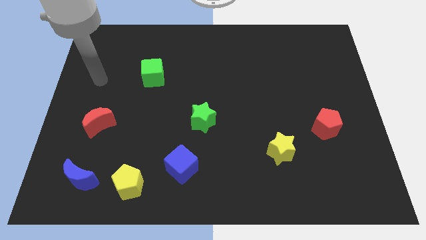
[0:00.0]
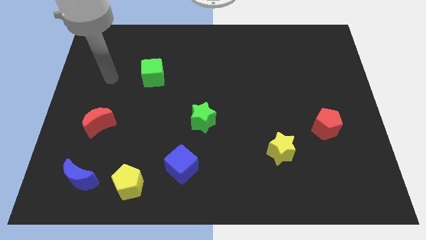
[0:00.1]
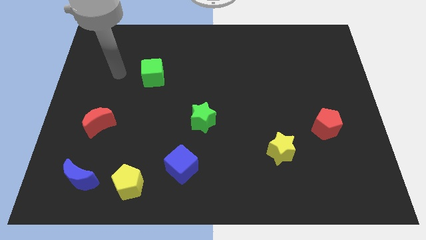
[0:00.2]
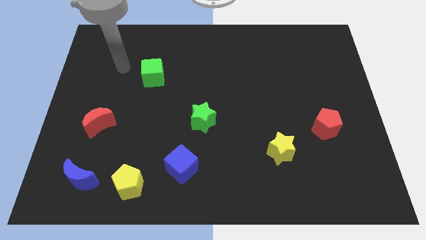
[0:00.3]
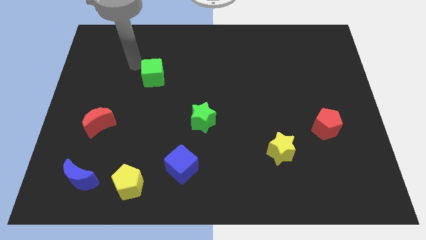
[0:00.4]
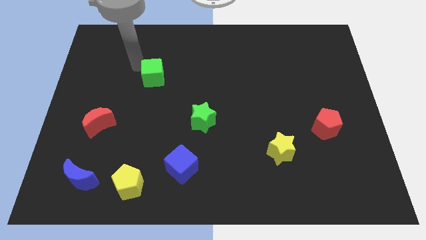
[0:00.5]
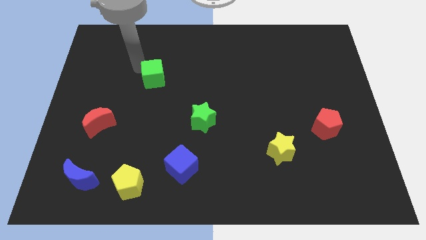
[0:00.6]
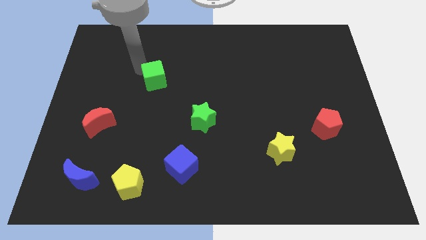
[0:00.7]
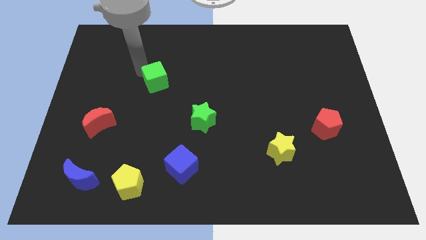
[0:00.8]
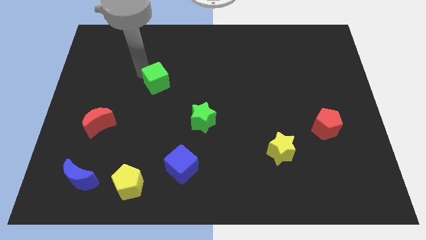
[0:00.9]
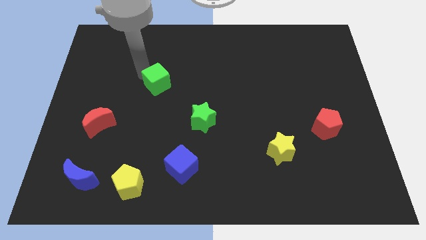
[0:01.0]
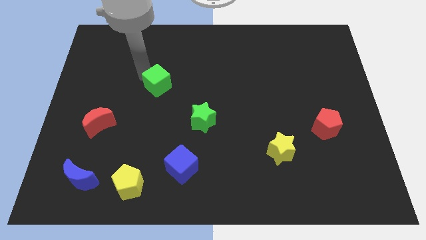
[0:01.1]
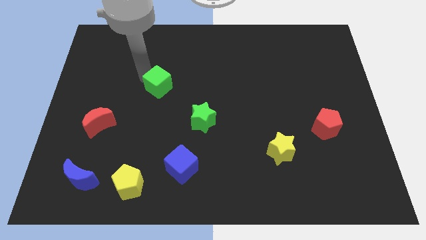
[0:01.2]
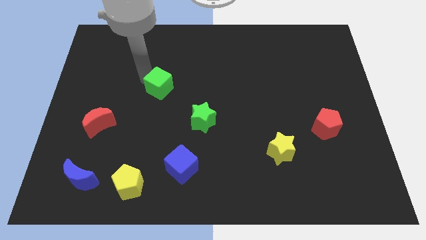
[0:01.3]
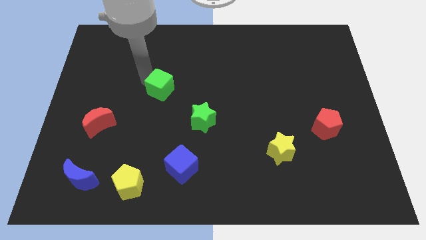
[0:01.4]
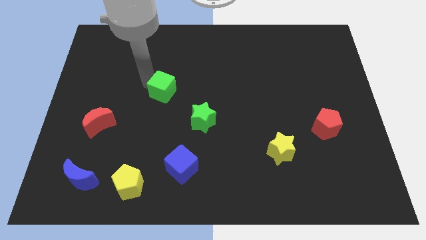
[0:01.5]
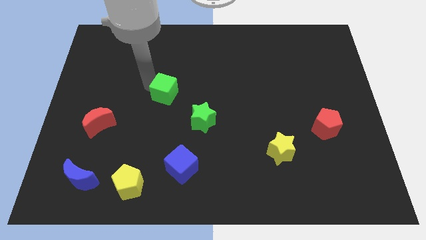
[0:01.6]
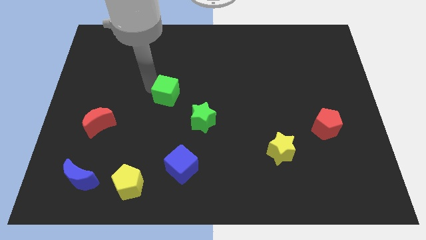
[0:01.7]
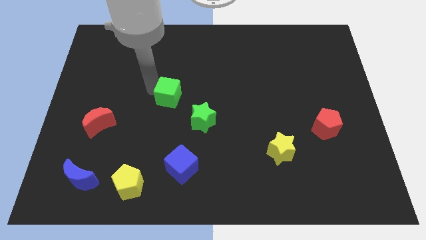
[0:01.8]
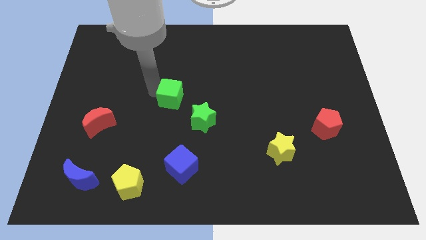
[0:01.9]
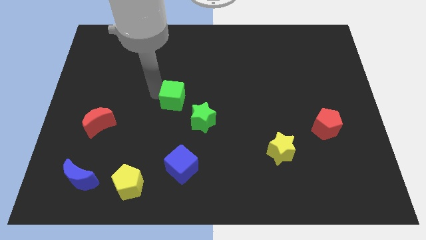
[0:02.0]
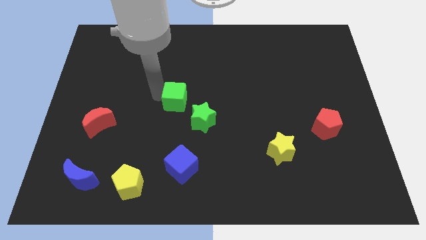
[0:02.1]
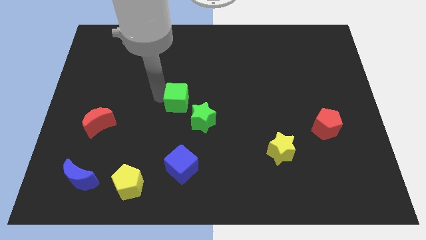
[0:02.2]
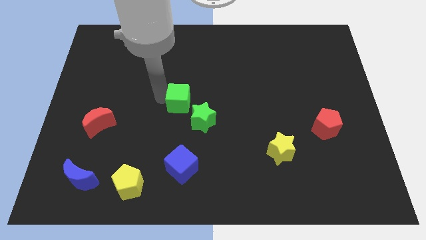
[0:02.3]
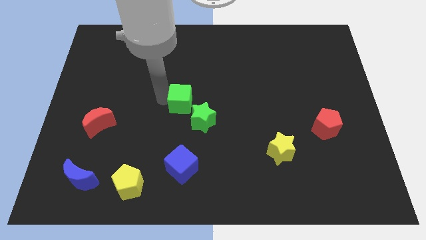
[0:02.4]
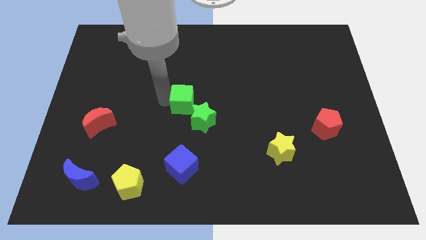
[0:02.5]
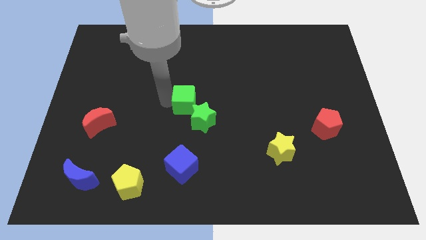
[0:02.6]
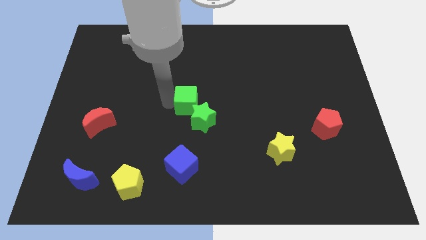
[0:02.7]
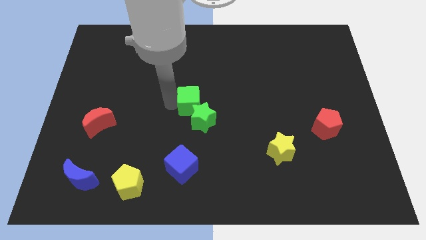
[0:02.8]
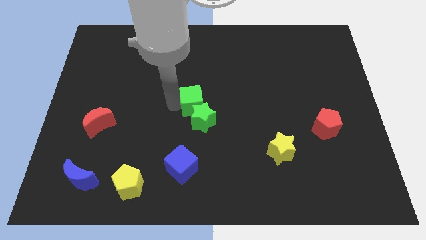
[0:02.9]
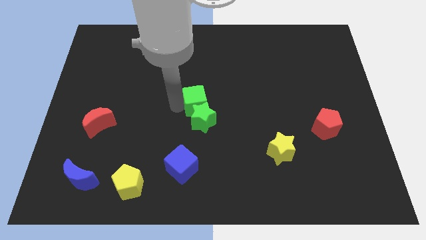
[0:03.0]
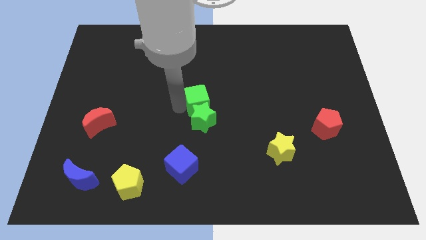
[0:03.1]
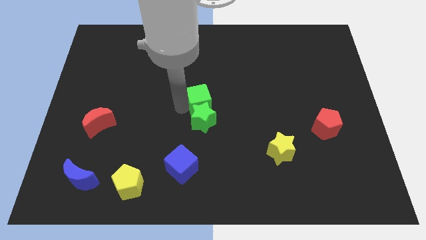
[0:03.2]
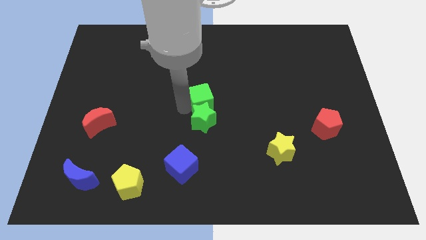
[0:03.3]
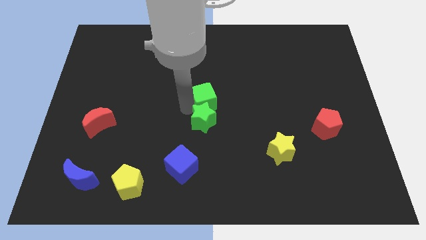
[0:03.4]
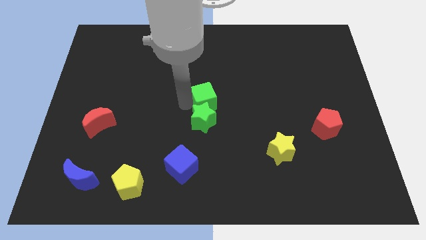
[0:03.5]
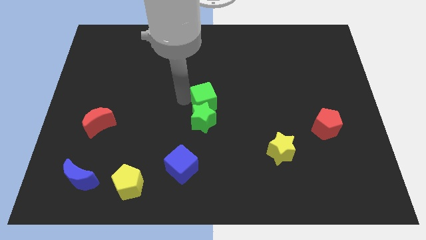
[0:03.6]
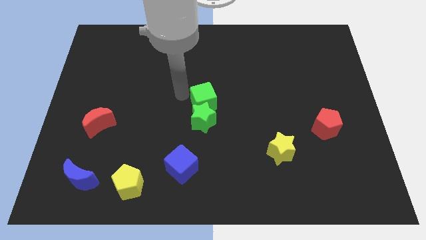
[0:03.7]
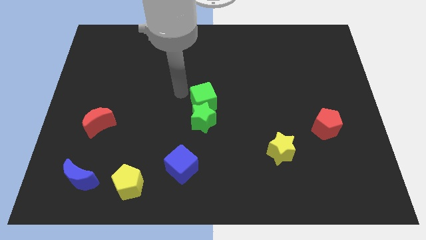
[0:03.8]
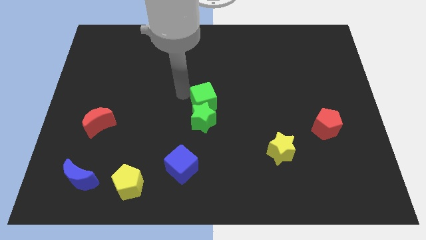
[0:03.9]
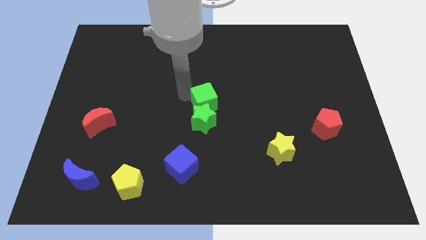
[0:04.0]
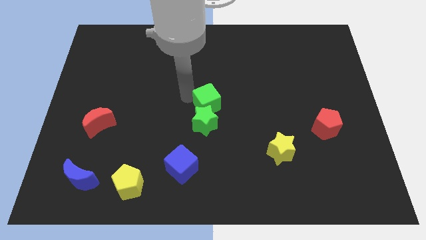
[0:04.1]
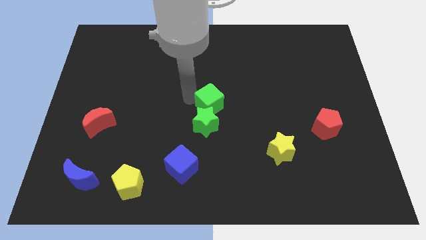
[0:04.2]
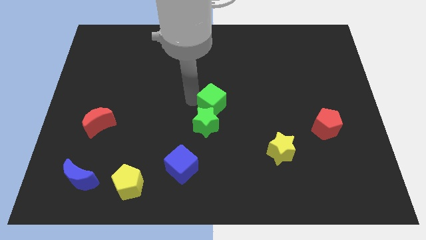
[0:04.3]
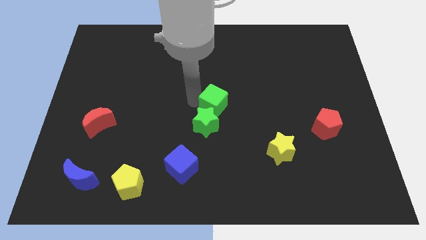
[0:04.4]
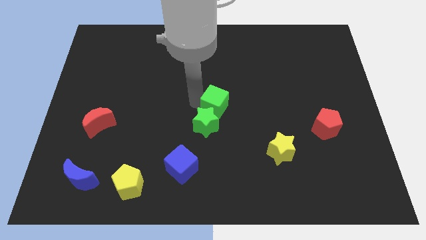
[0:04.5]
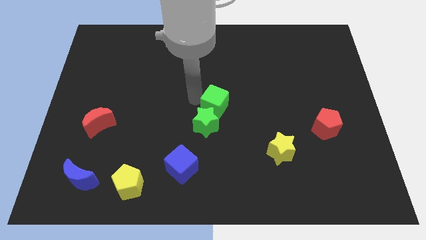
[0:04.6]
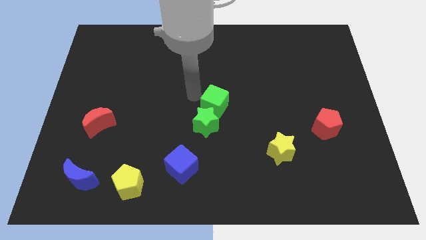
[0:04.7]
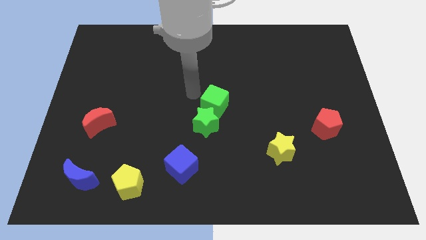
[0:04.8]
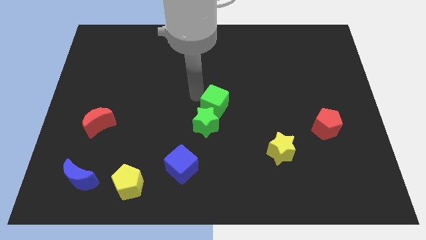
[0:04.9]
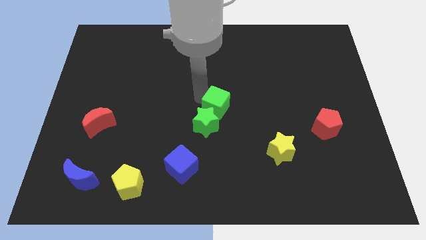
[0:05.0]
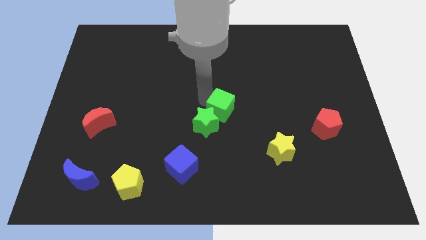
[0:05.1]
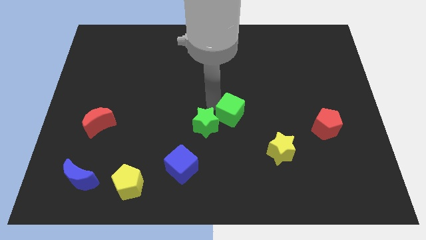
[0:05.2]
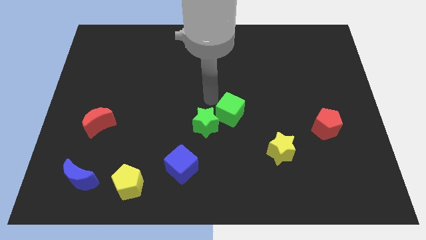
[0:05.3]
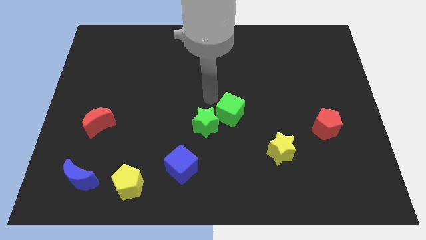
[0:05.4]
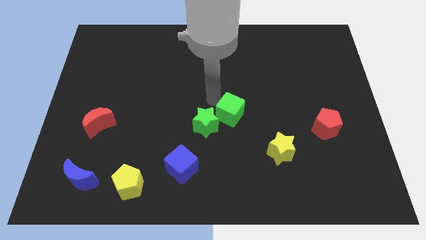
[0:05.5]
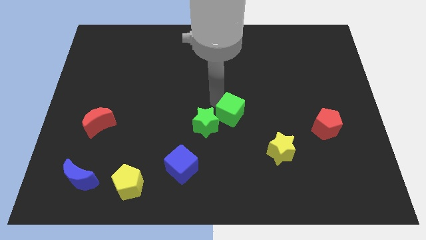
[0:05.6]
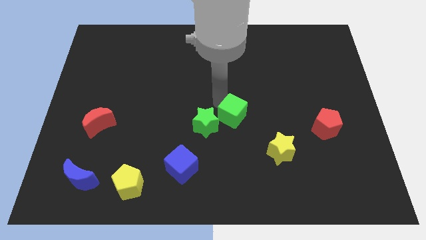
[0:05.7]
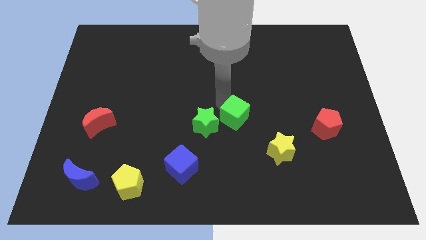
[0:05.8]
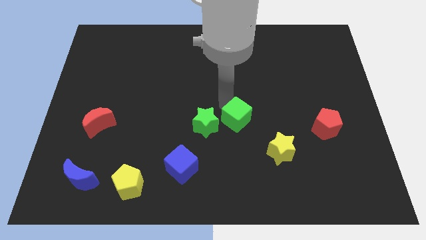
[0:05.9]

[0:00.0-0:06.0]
put the green cube to the top left side of the yellow star
